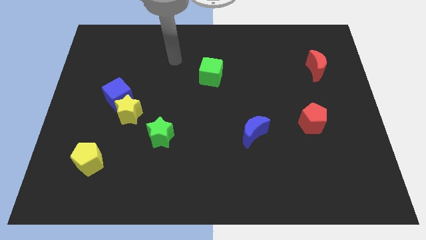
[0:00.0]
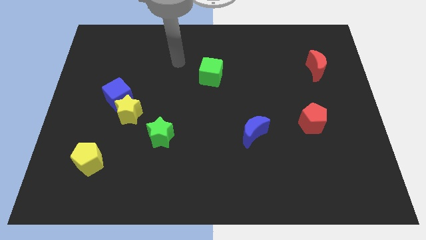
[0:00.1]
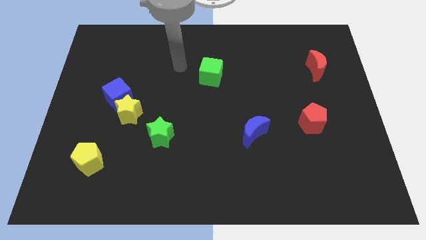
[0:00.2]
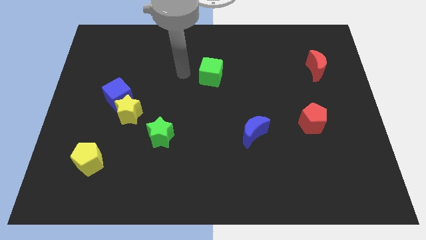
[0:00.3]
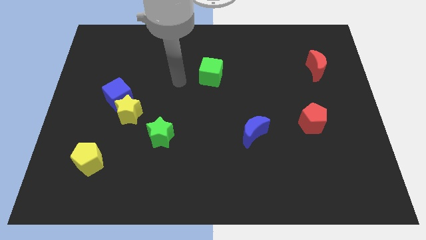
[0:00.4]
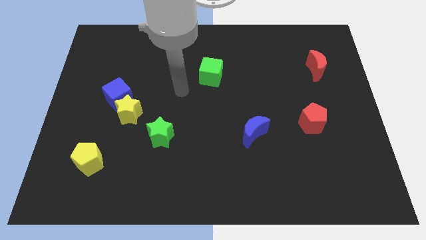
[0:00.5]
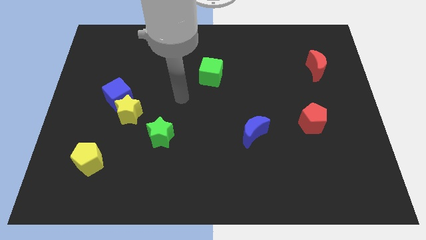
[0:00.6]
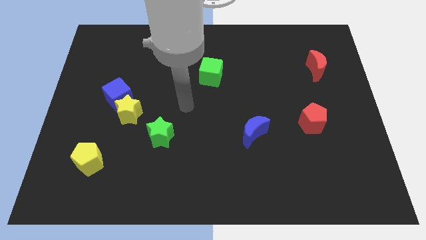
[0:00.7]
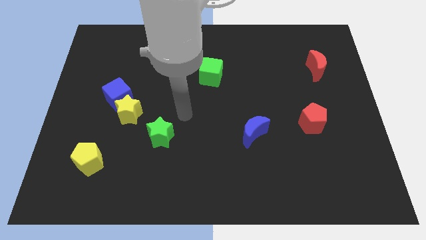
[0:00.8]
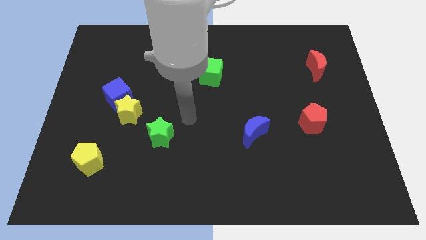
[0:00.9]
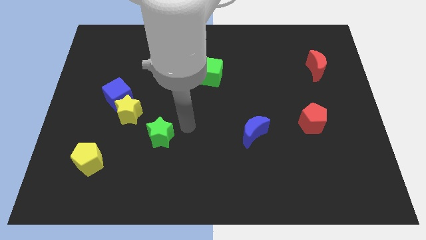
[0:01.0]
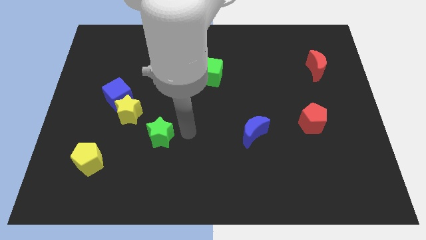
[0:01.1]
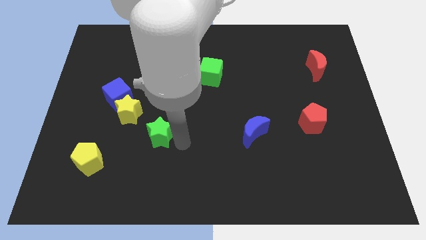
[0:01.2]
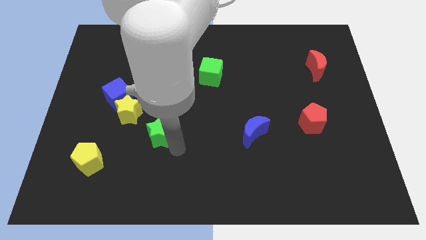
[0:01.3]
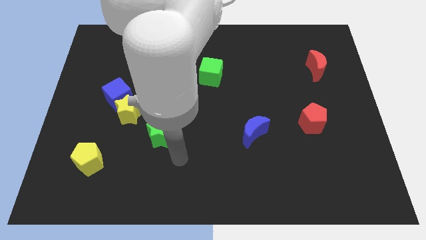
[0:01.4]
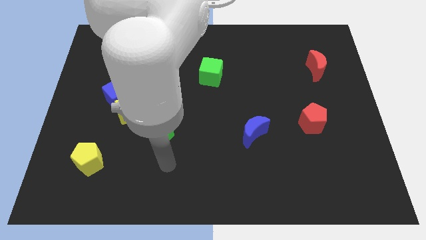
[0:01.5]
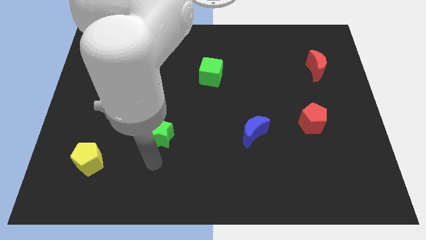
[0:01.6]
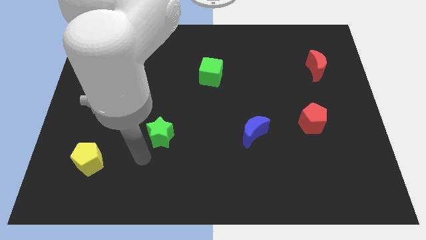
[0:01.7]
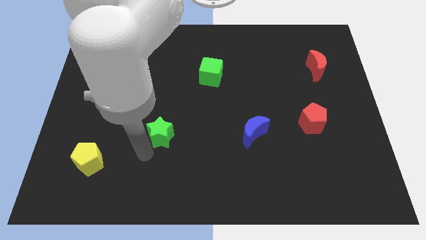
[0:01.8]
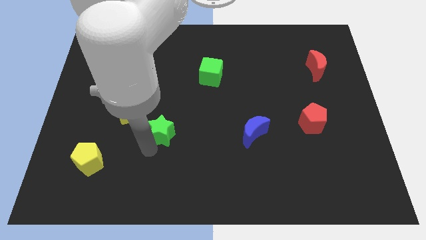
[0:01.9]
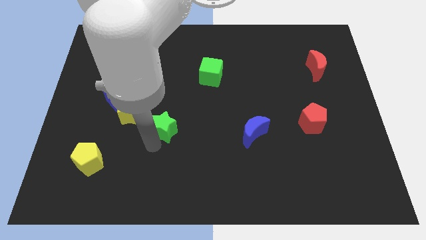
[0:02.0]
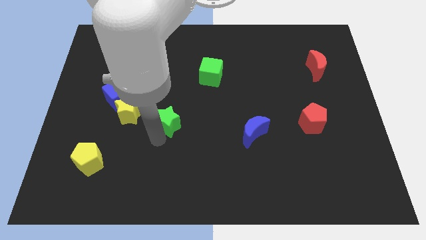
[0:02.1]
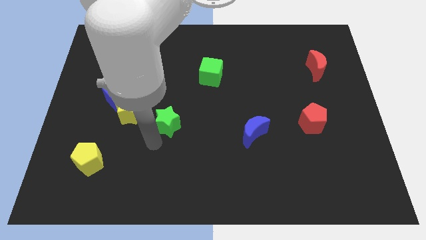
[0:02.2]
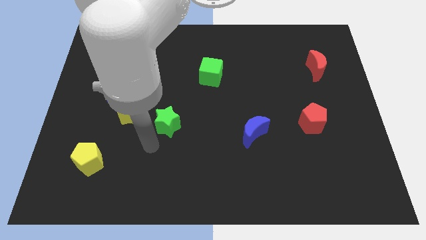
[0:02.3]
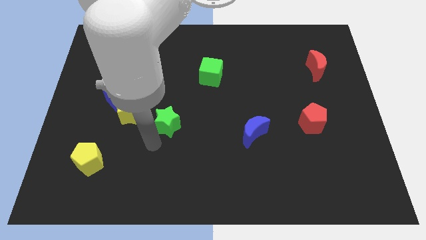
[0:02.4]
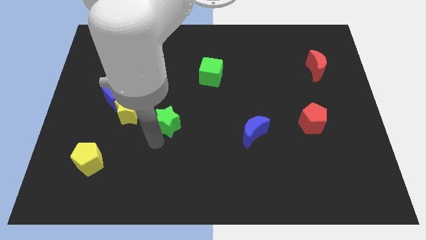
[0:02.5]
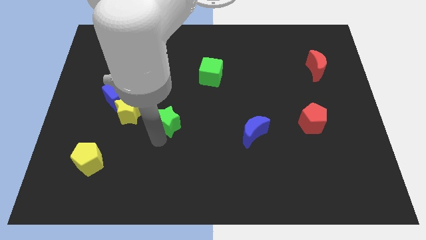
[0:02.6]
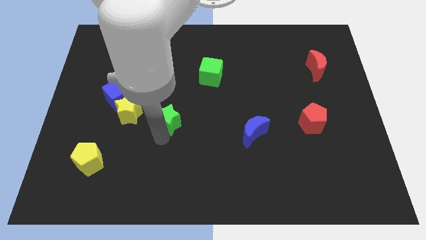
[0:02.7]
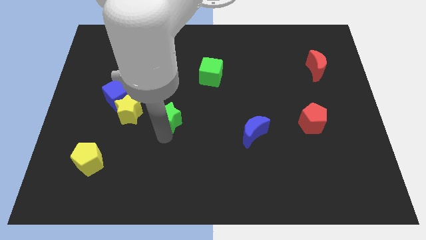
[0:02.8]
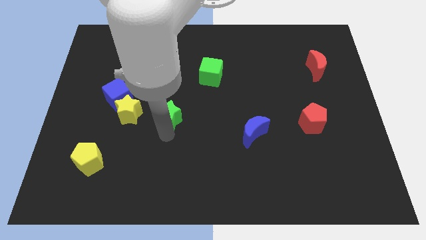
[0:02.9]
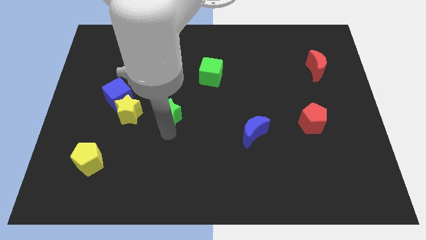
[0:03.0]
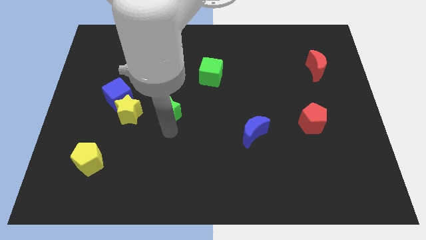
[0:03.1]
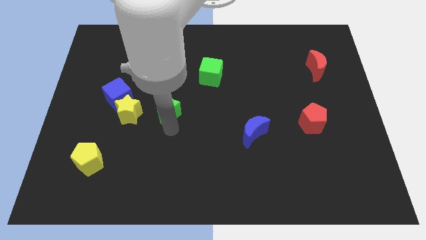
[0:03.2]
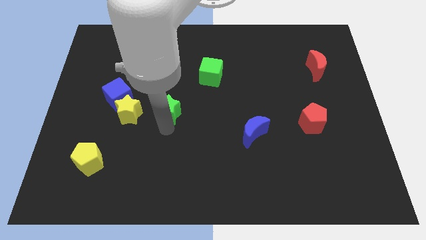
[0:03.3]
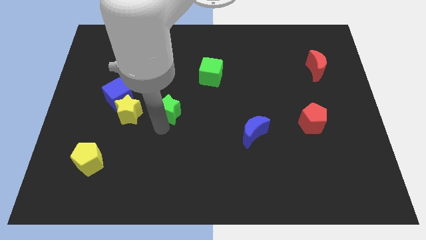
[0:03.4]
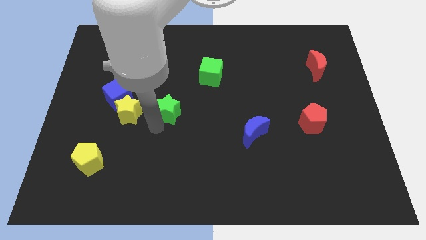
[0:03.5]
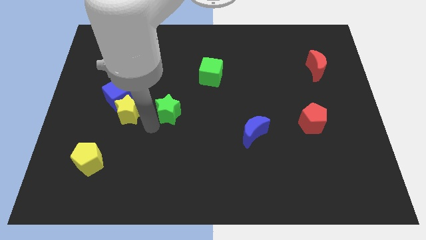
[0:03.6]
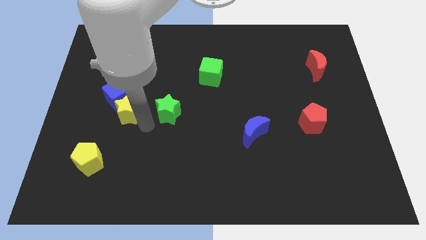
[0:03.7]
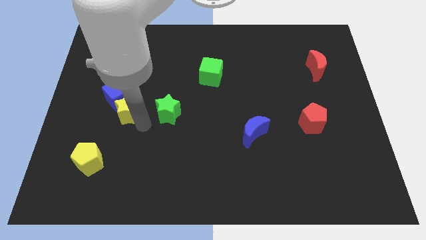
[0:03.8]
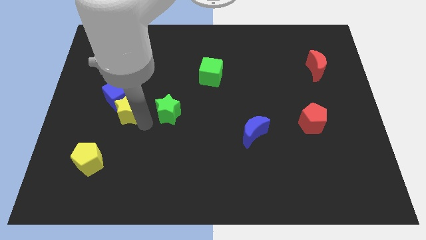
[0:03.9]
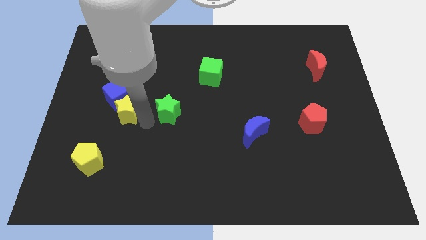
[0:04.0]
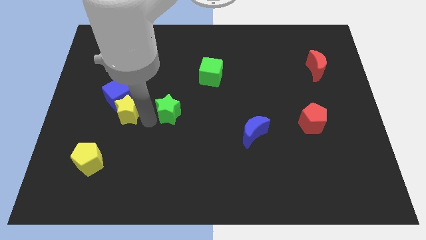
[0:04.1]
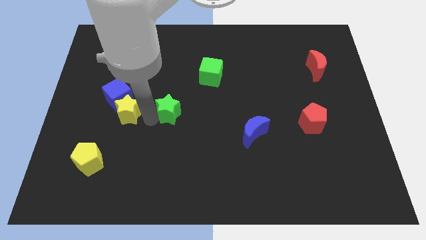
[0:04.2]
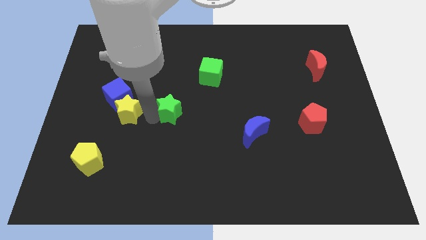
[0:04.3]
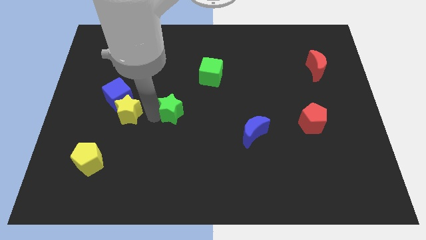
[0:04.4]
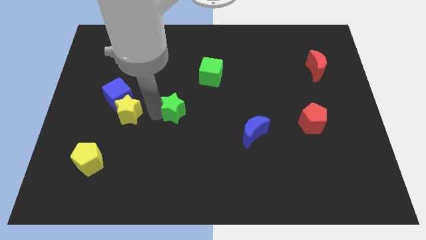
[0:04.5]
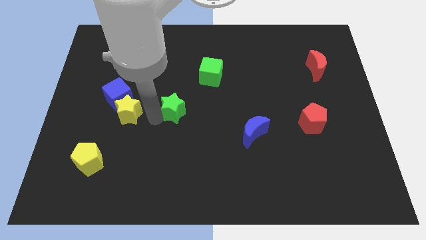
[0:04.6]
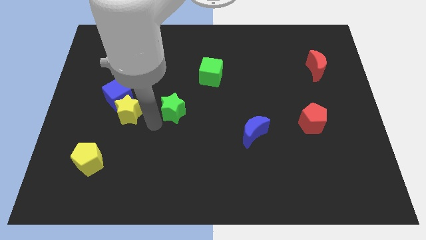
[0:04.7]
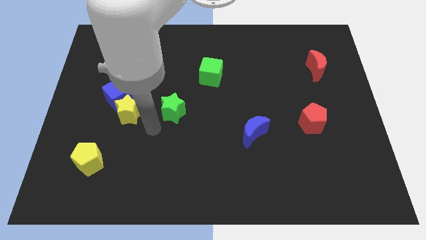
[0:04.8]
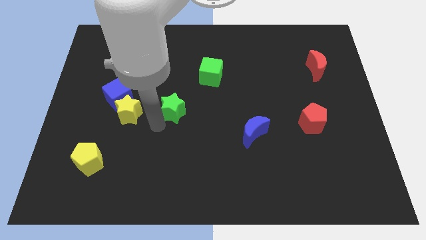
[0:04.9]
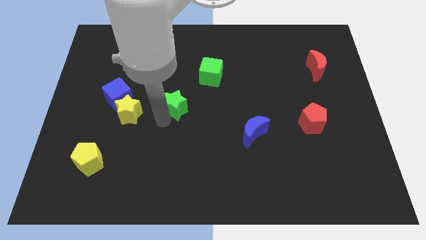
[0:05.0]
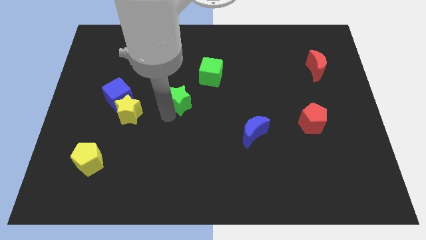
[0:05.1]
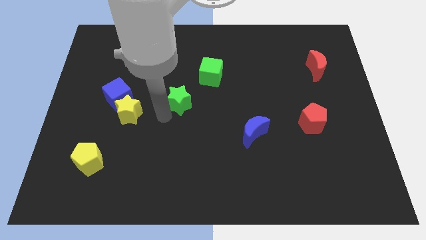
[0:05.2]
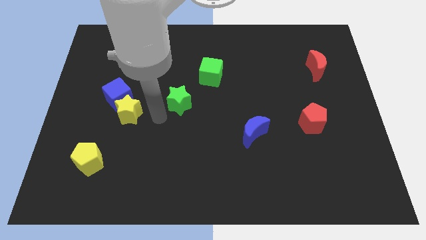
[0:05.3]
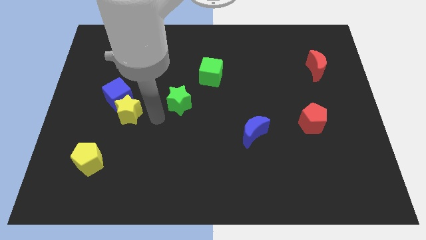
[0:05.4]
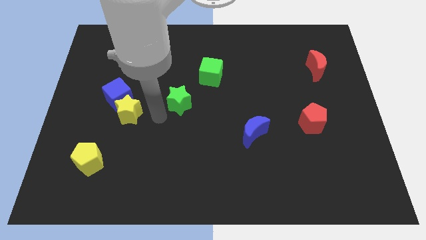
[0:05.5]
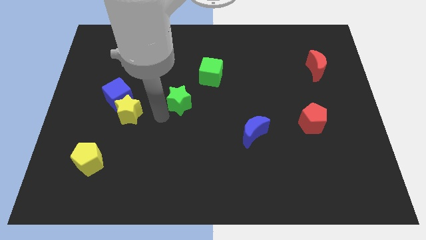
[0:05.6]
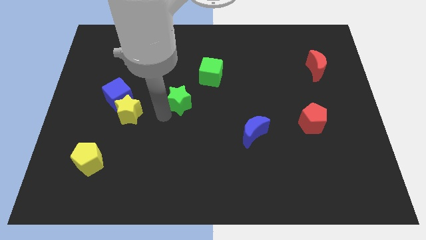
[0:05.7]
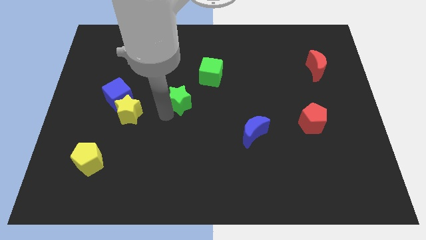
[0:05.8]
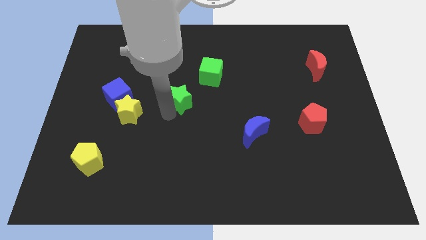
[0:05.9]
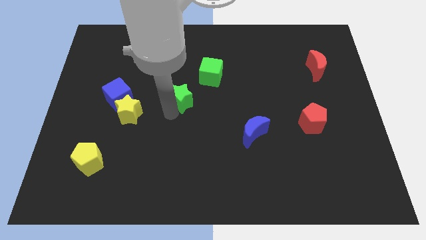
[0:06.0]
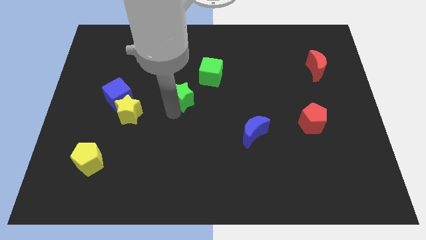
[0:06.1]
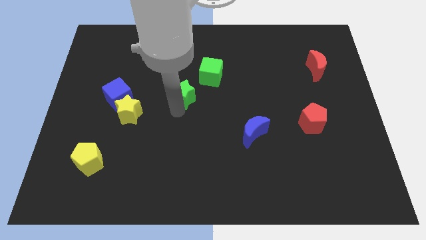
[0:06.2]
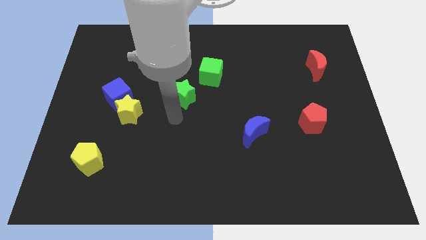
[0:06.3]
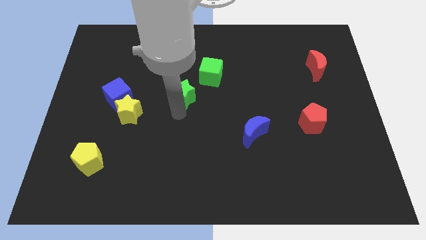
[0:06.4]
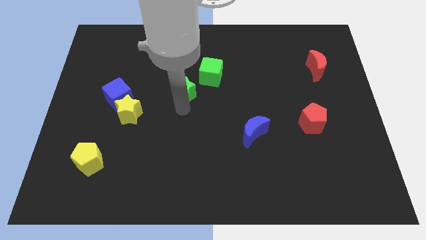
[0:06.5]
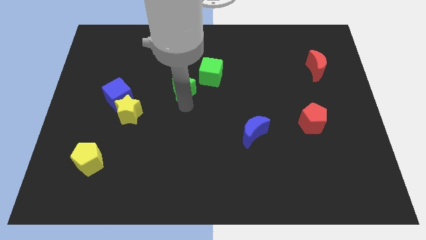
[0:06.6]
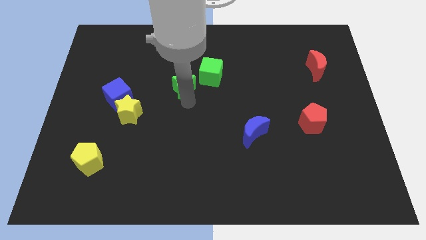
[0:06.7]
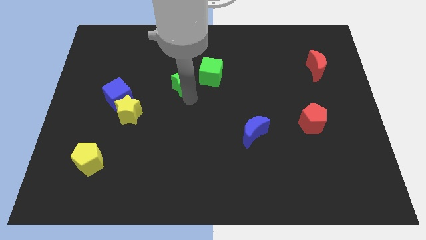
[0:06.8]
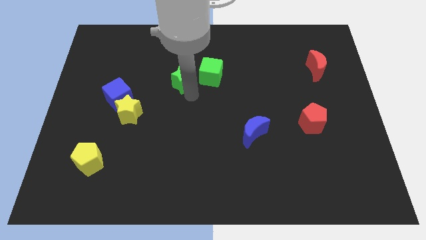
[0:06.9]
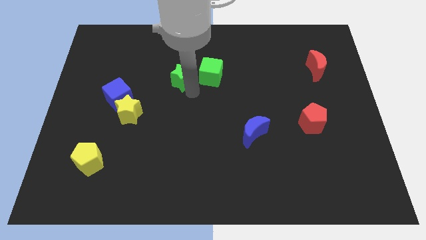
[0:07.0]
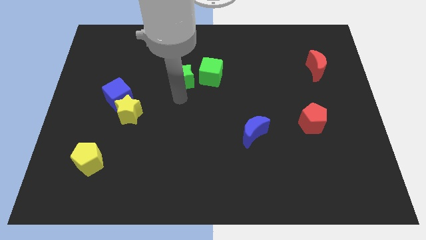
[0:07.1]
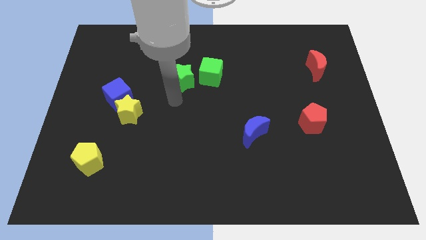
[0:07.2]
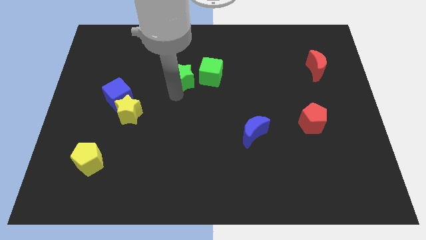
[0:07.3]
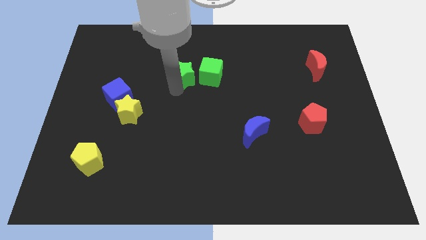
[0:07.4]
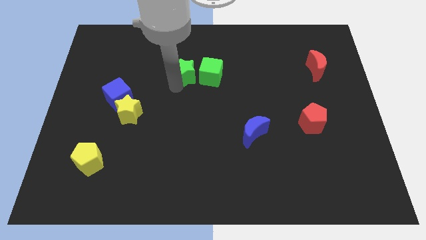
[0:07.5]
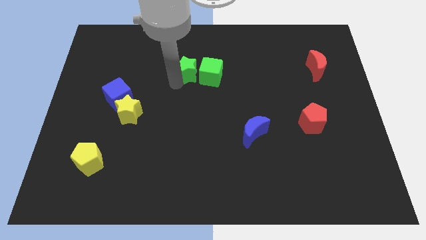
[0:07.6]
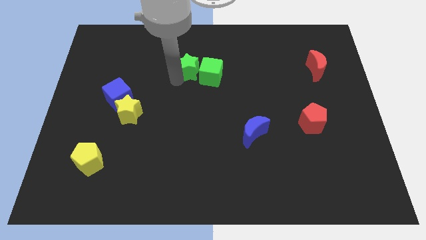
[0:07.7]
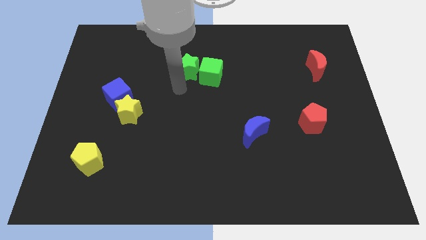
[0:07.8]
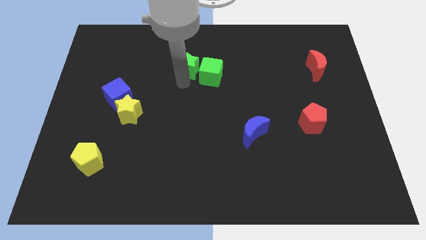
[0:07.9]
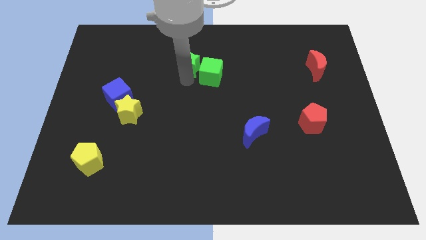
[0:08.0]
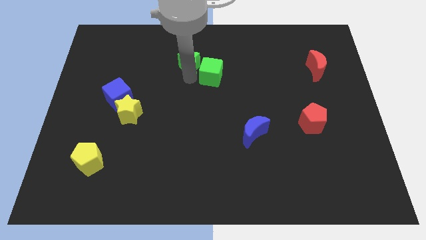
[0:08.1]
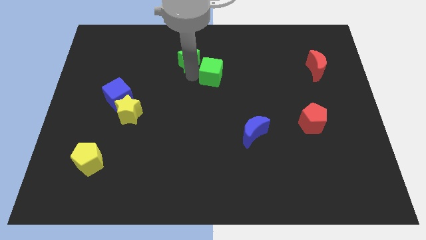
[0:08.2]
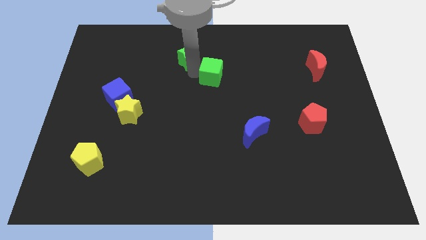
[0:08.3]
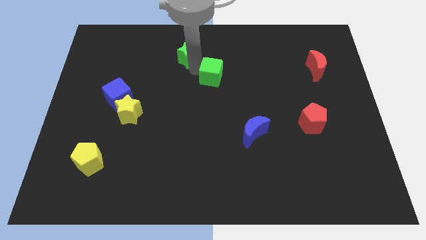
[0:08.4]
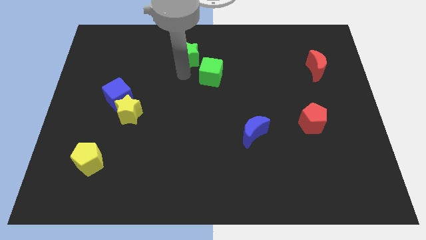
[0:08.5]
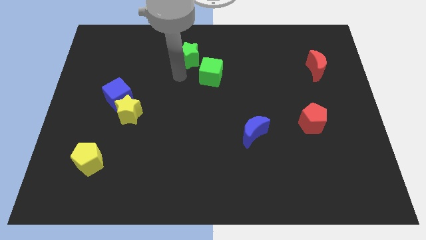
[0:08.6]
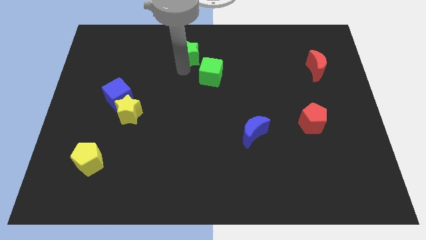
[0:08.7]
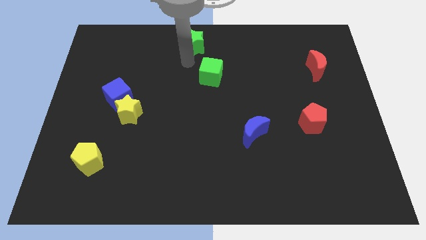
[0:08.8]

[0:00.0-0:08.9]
slide the green star to the top
